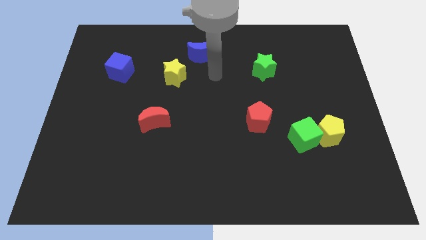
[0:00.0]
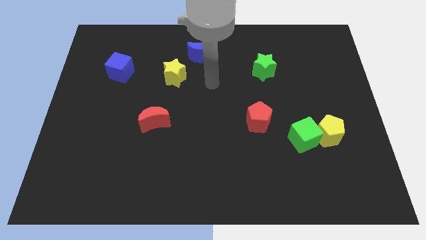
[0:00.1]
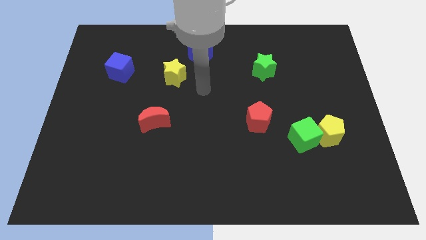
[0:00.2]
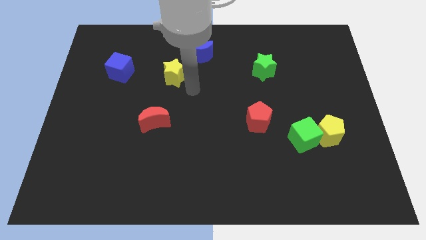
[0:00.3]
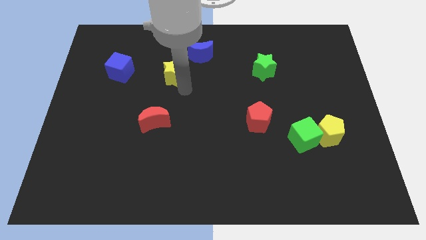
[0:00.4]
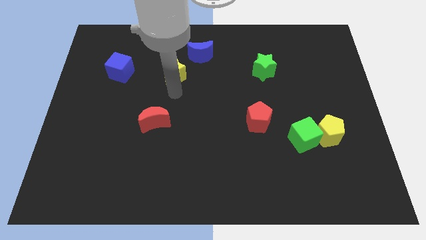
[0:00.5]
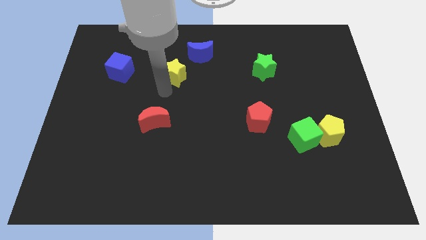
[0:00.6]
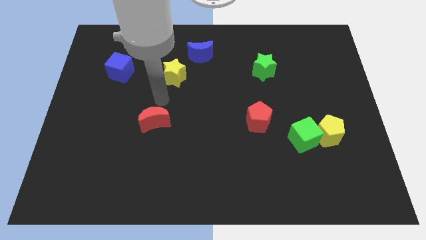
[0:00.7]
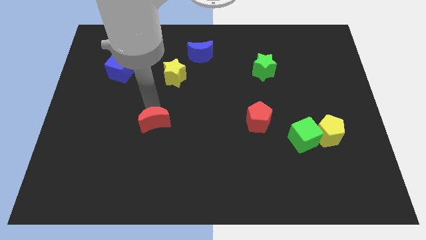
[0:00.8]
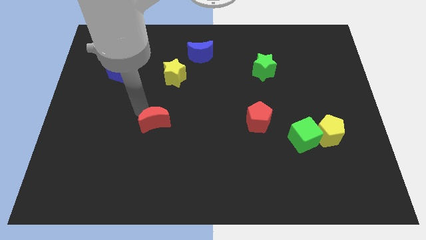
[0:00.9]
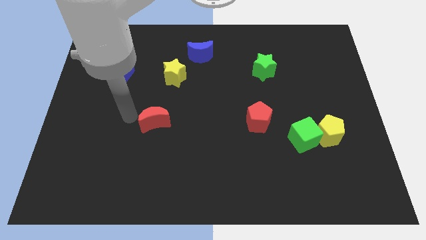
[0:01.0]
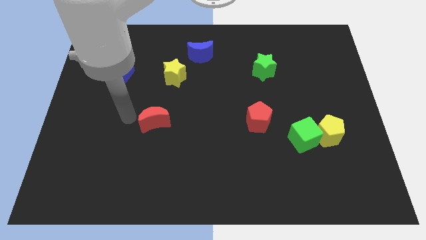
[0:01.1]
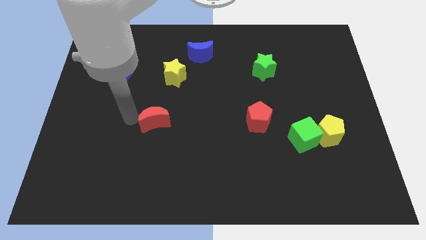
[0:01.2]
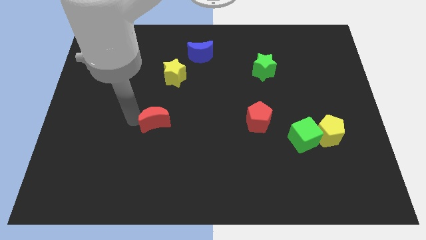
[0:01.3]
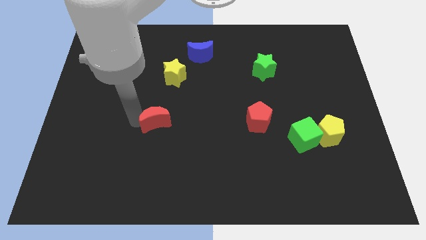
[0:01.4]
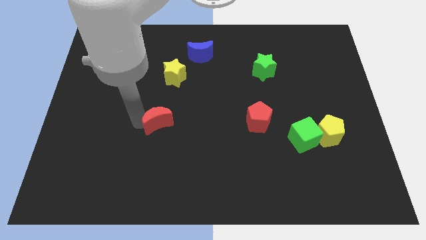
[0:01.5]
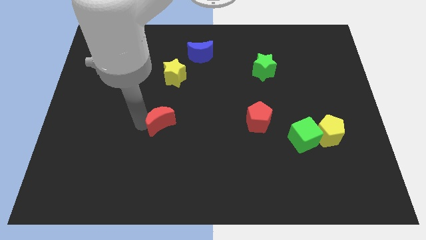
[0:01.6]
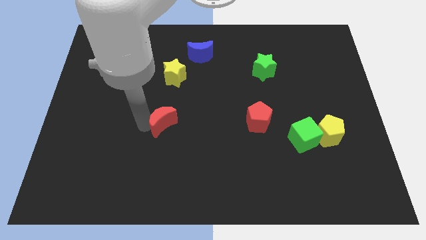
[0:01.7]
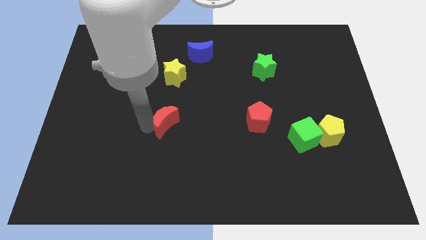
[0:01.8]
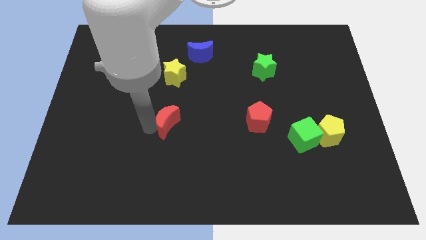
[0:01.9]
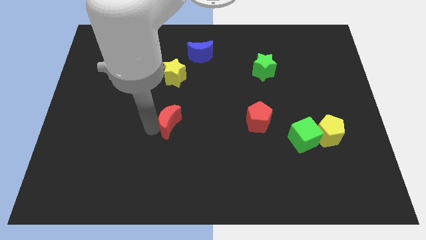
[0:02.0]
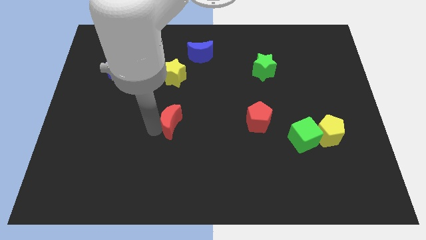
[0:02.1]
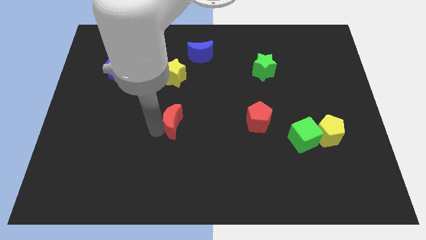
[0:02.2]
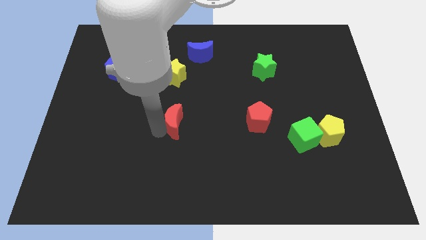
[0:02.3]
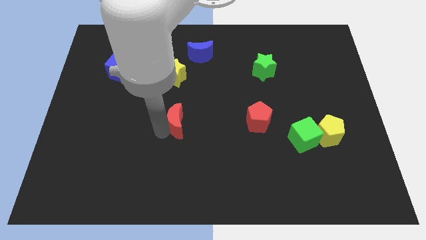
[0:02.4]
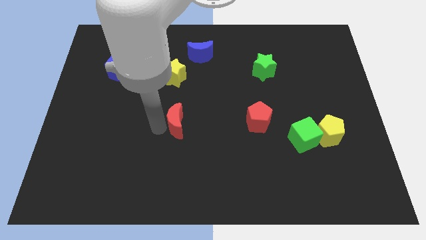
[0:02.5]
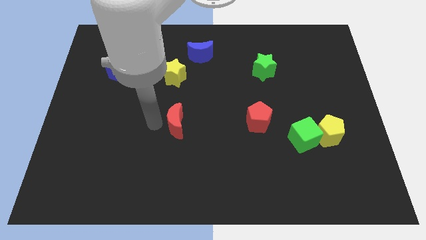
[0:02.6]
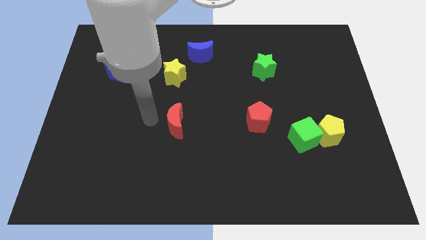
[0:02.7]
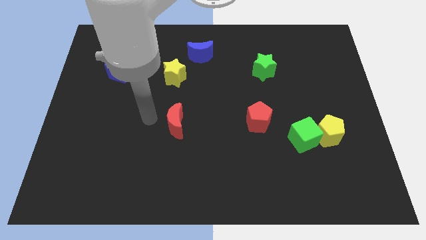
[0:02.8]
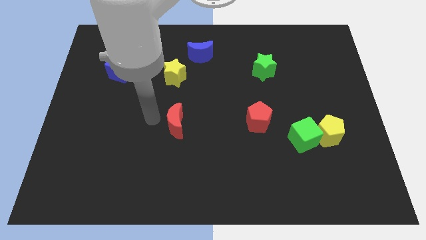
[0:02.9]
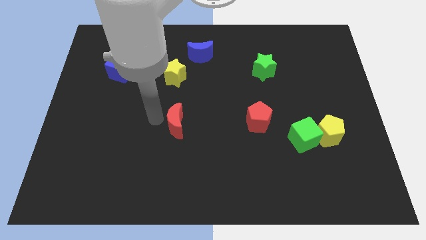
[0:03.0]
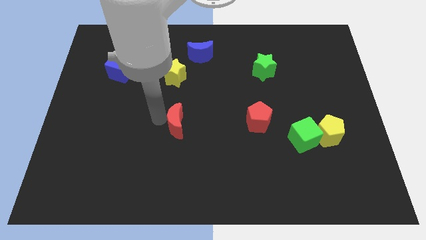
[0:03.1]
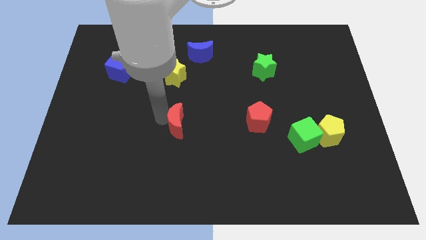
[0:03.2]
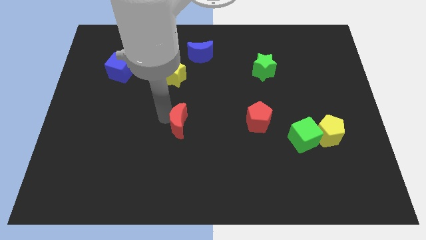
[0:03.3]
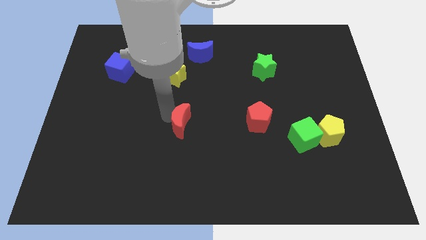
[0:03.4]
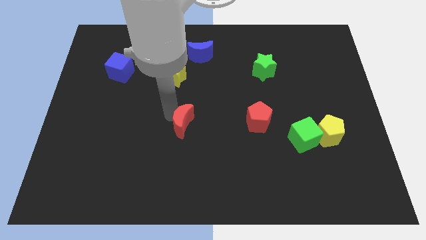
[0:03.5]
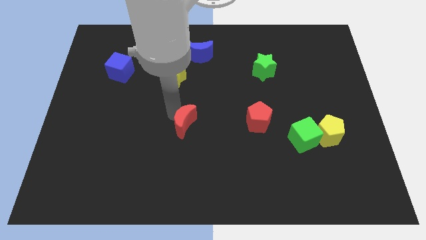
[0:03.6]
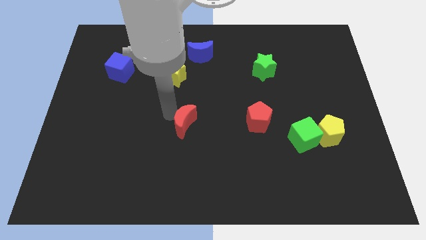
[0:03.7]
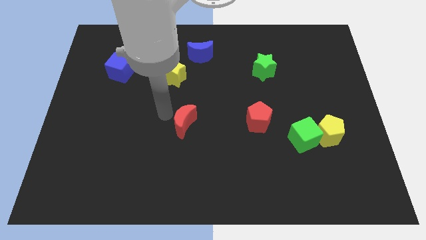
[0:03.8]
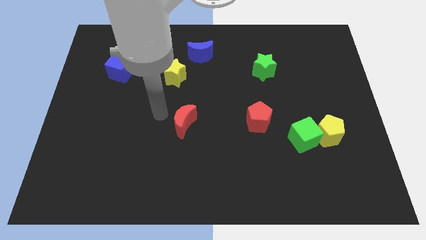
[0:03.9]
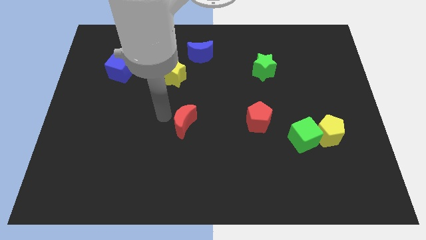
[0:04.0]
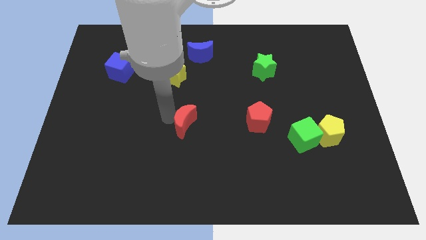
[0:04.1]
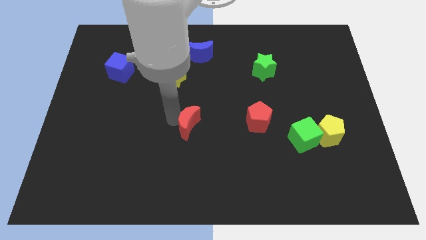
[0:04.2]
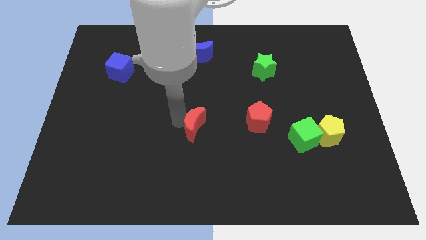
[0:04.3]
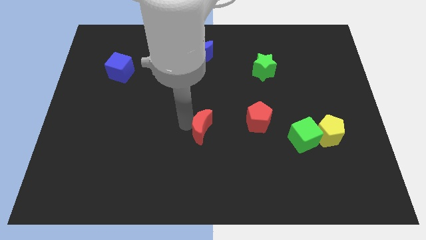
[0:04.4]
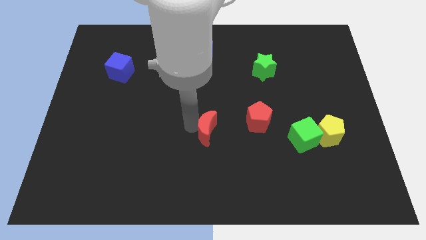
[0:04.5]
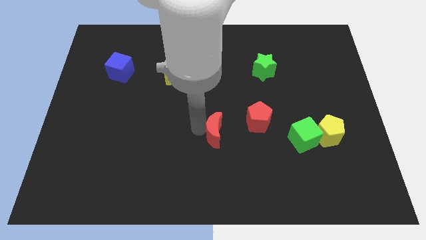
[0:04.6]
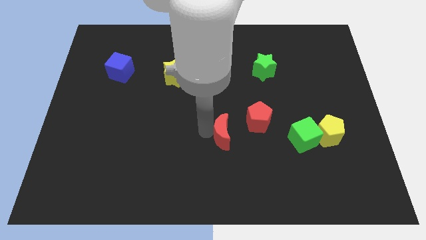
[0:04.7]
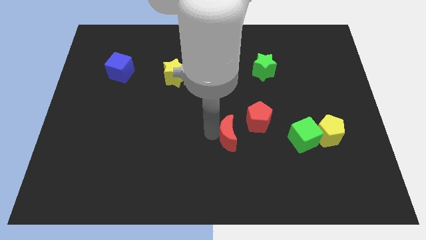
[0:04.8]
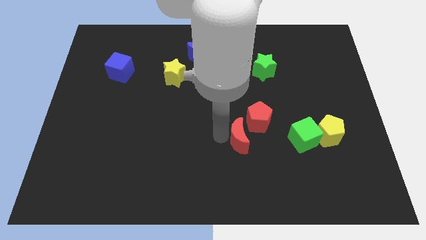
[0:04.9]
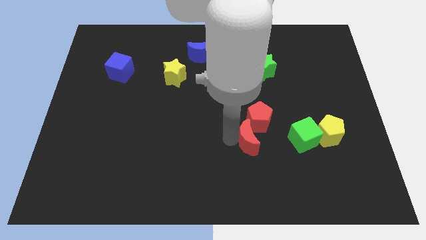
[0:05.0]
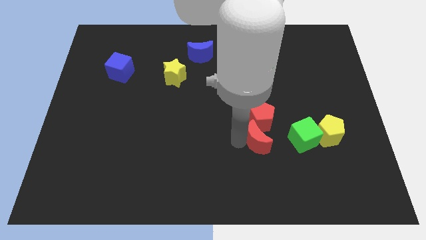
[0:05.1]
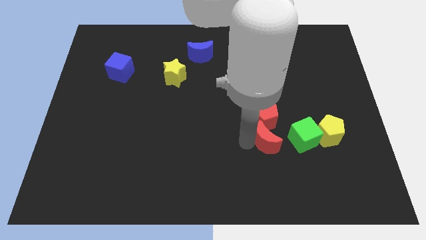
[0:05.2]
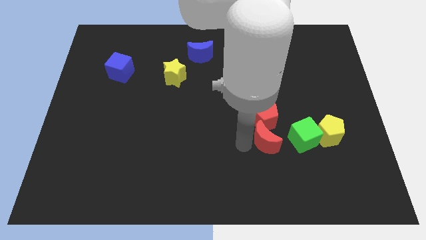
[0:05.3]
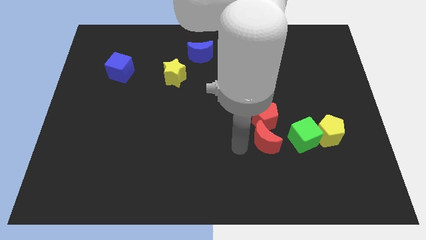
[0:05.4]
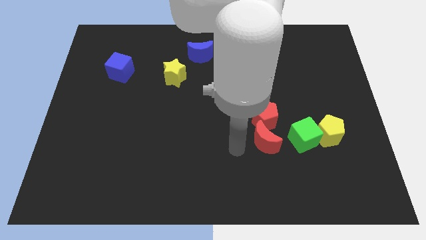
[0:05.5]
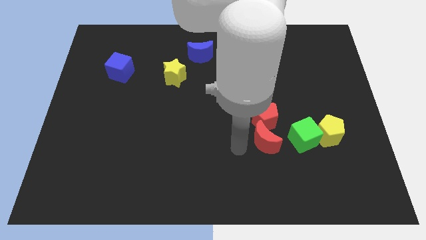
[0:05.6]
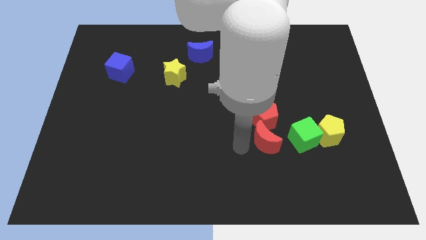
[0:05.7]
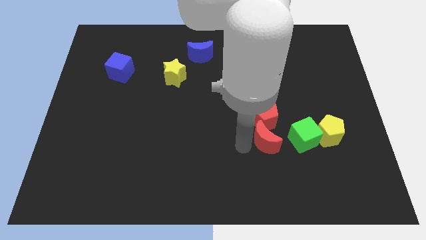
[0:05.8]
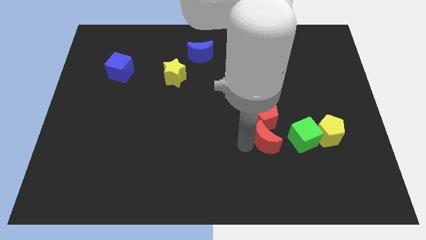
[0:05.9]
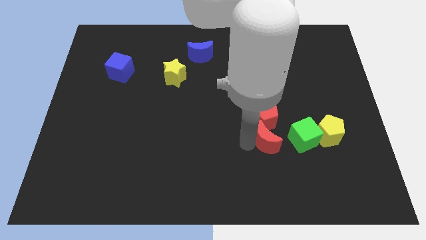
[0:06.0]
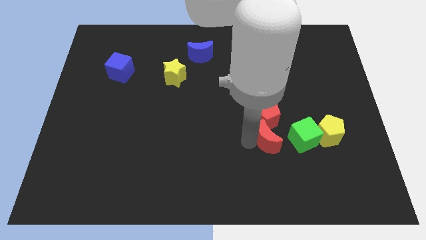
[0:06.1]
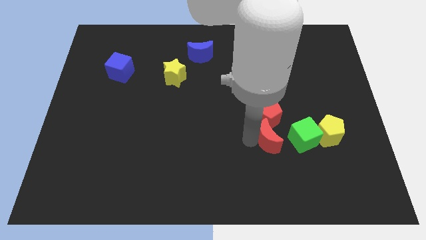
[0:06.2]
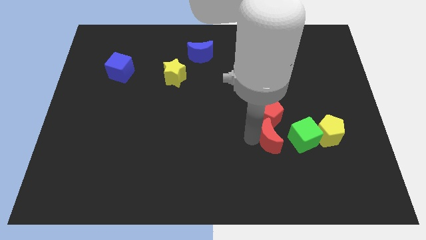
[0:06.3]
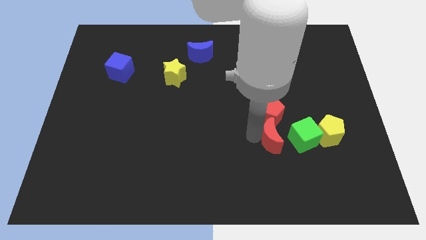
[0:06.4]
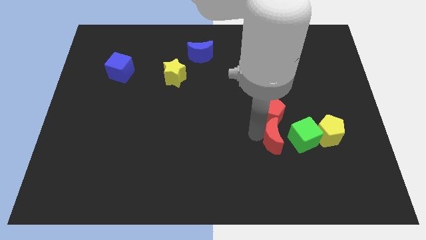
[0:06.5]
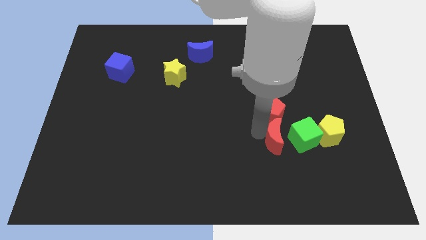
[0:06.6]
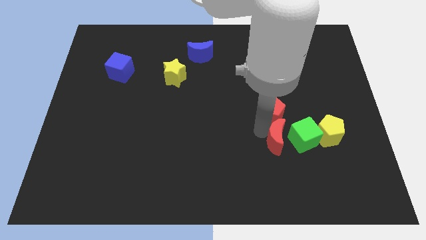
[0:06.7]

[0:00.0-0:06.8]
push the red moon close to the green cube

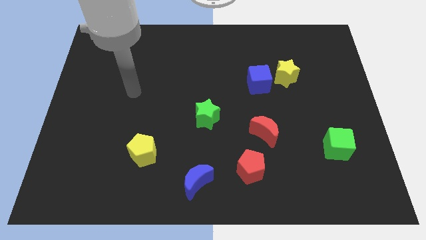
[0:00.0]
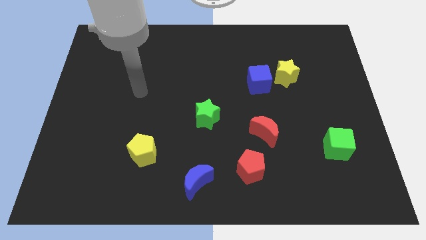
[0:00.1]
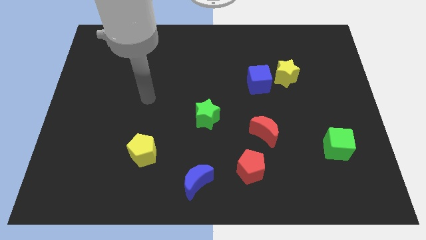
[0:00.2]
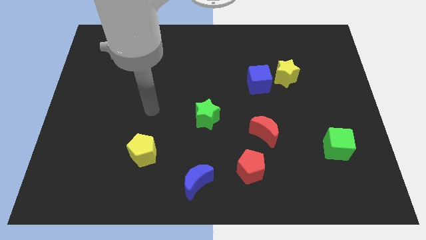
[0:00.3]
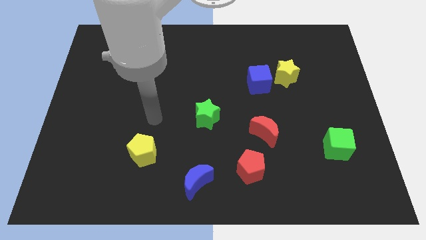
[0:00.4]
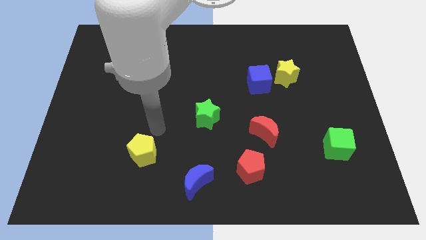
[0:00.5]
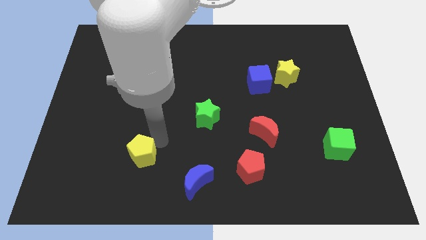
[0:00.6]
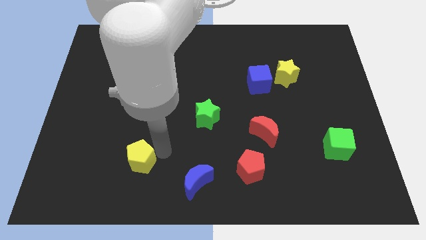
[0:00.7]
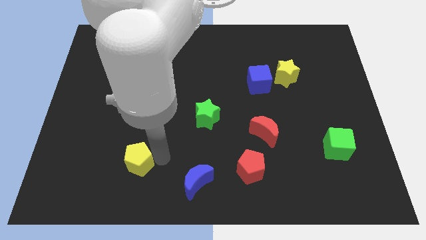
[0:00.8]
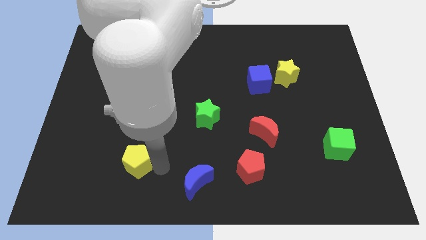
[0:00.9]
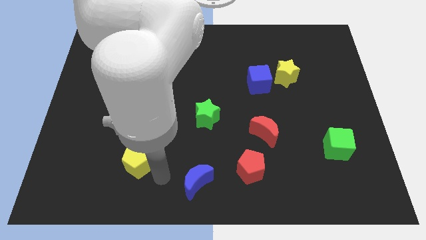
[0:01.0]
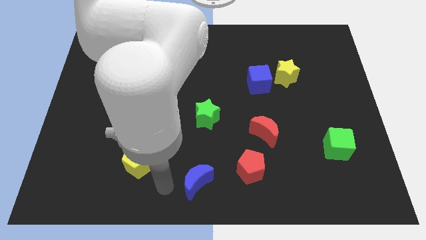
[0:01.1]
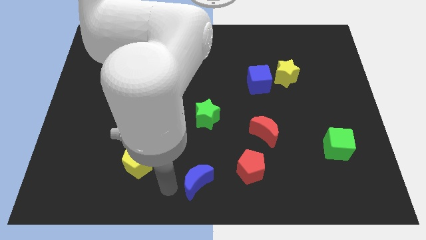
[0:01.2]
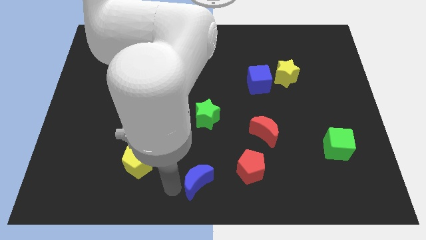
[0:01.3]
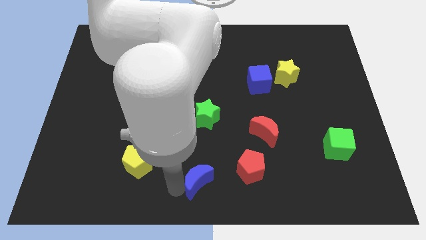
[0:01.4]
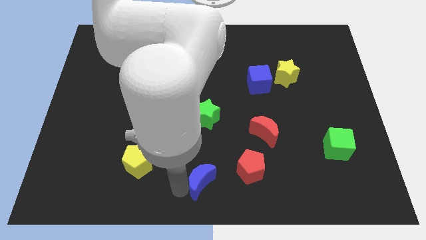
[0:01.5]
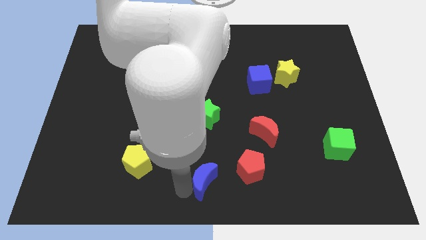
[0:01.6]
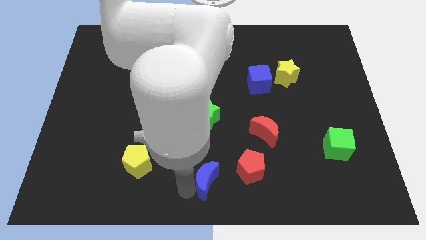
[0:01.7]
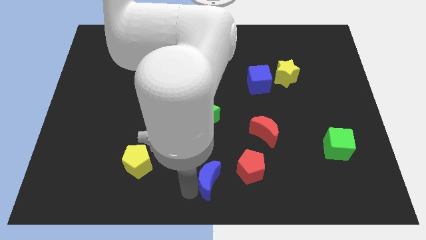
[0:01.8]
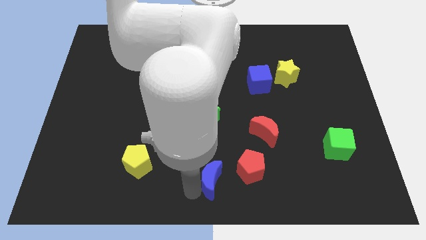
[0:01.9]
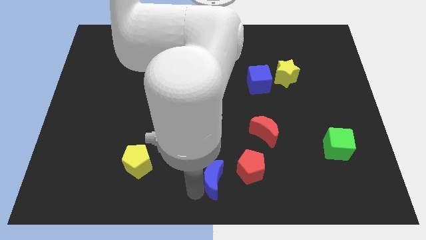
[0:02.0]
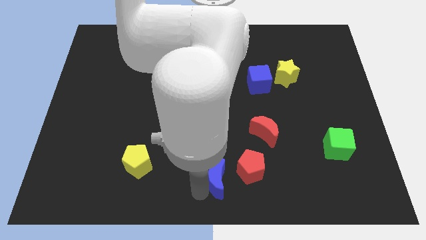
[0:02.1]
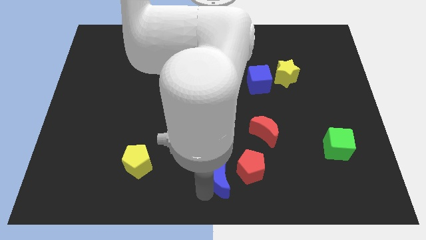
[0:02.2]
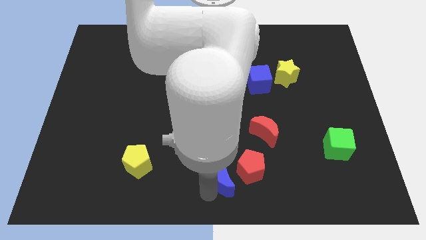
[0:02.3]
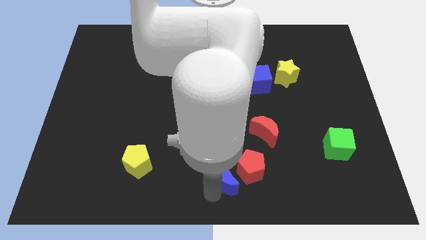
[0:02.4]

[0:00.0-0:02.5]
slide the blue moon to the red pentagon
